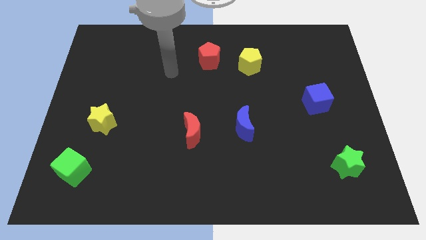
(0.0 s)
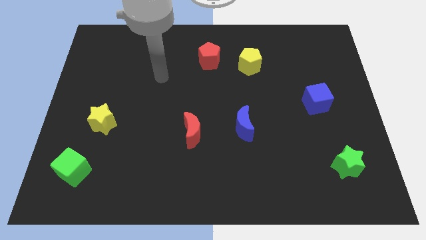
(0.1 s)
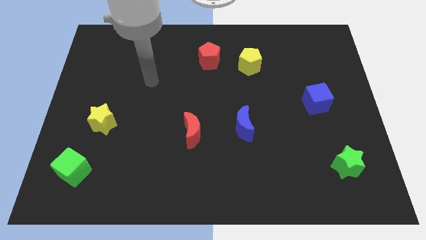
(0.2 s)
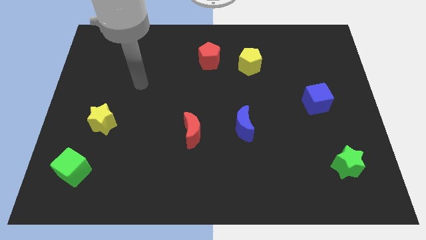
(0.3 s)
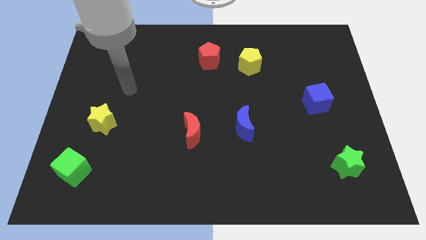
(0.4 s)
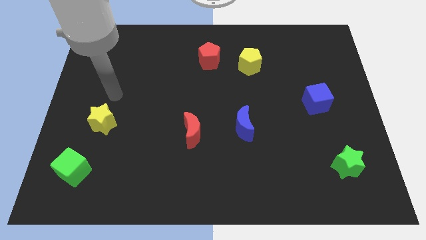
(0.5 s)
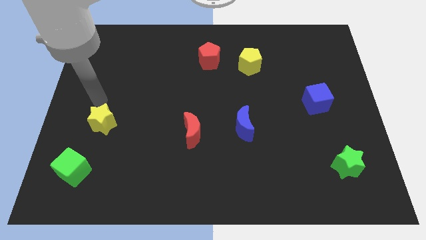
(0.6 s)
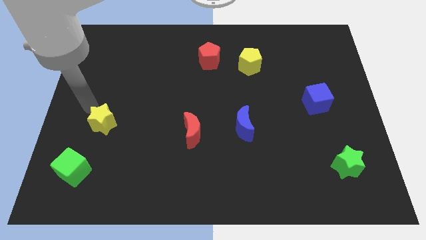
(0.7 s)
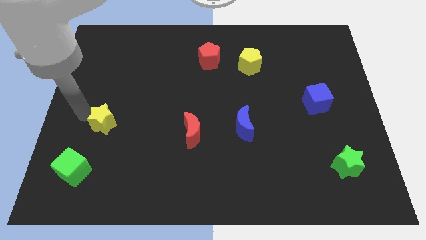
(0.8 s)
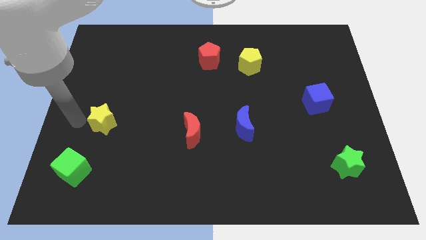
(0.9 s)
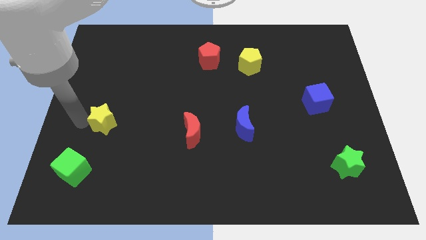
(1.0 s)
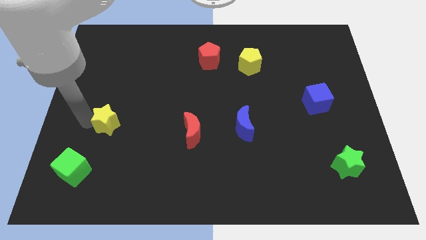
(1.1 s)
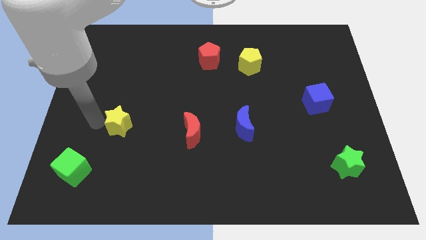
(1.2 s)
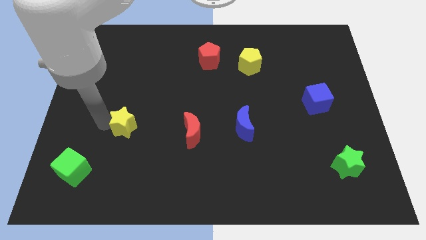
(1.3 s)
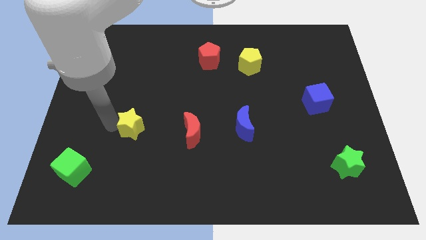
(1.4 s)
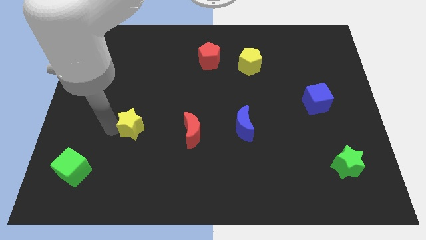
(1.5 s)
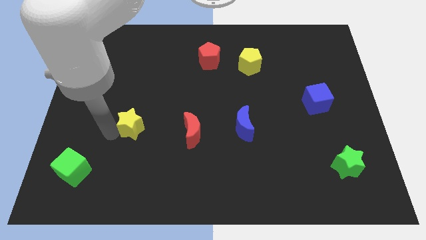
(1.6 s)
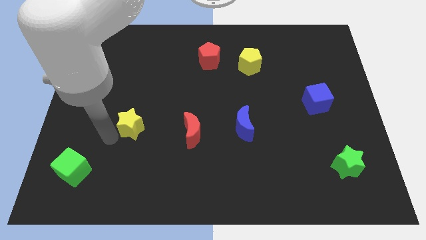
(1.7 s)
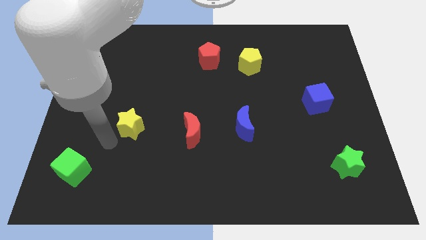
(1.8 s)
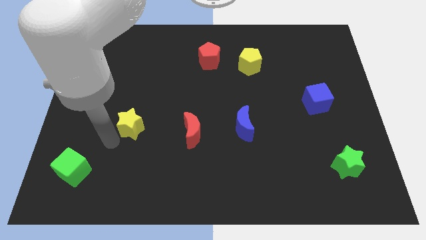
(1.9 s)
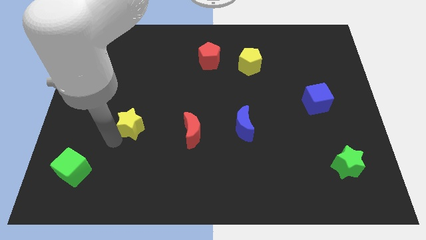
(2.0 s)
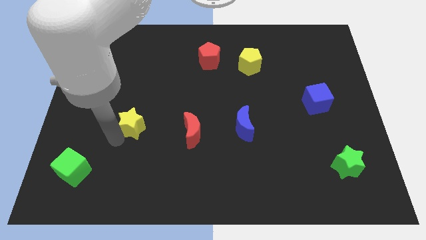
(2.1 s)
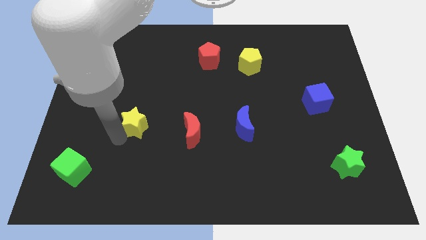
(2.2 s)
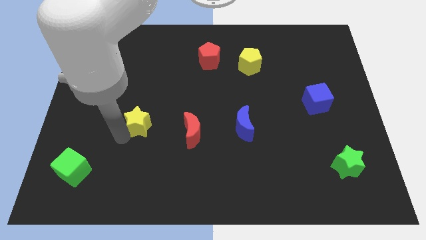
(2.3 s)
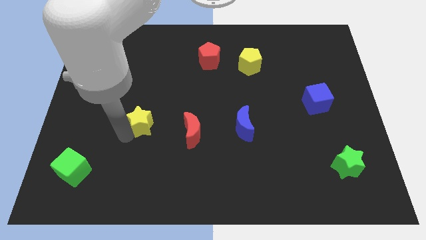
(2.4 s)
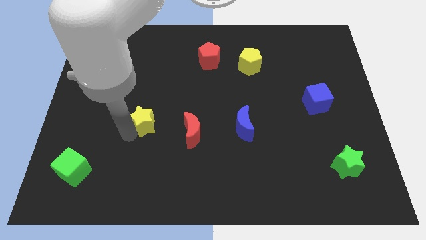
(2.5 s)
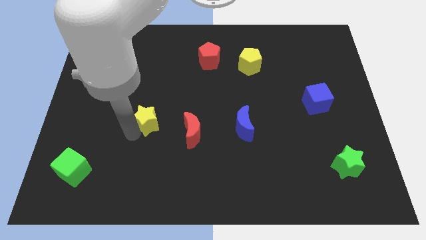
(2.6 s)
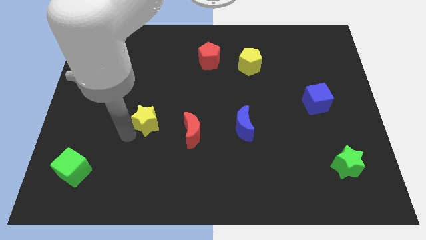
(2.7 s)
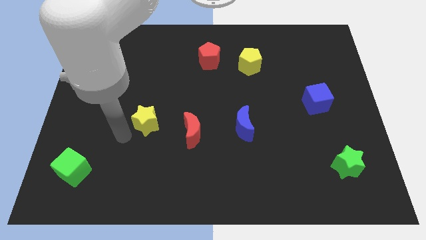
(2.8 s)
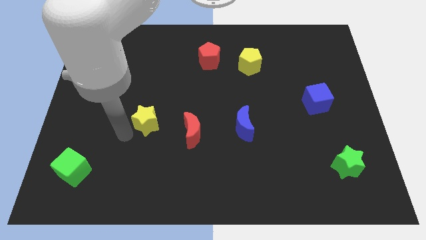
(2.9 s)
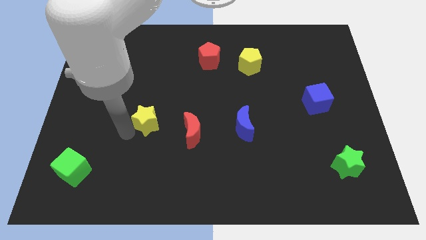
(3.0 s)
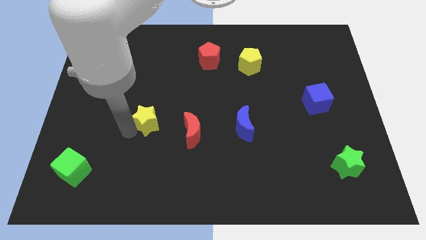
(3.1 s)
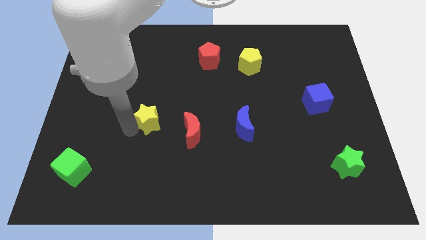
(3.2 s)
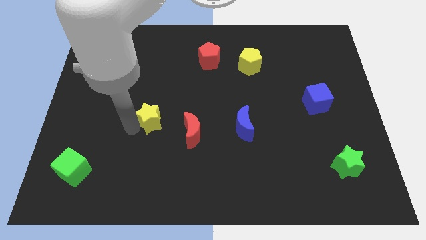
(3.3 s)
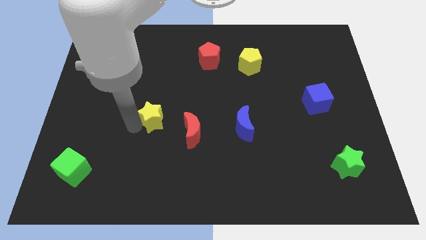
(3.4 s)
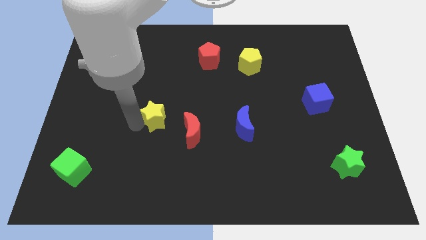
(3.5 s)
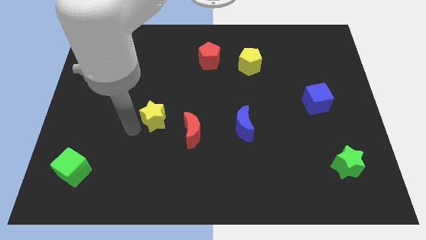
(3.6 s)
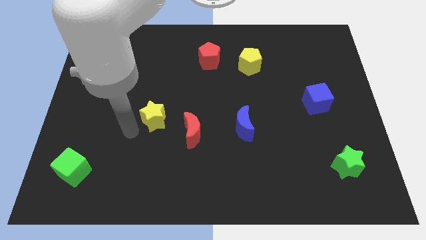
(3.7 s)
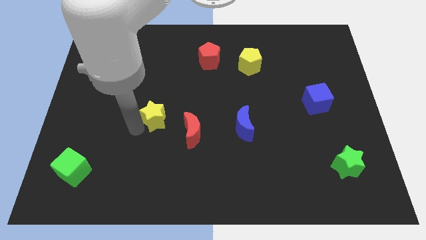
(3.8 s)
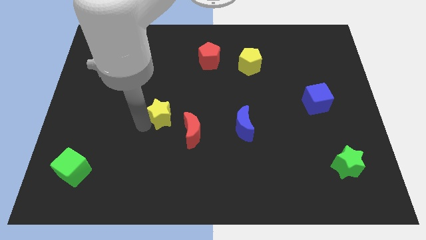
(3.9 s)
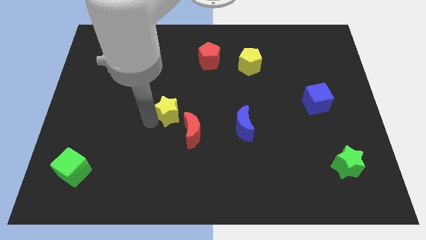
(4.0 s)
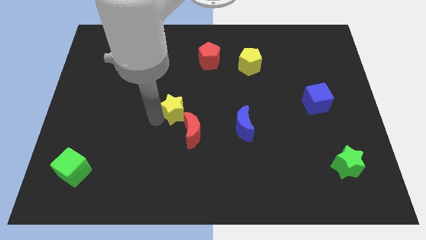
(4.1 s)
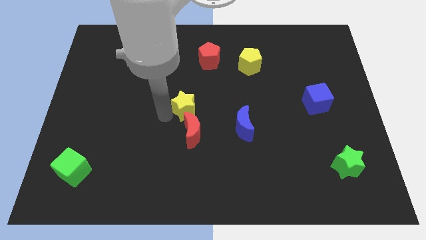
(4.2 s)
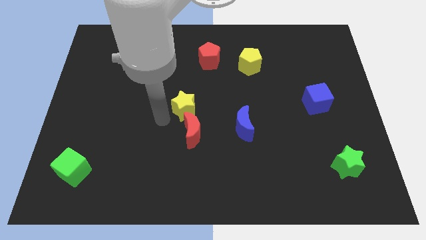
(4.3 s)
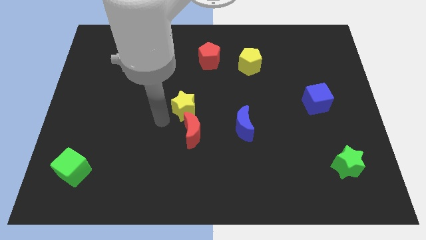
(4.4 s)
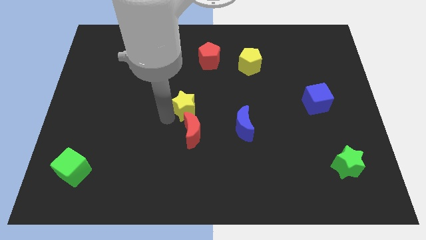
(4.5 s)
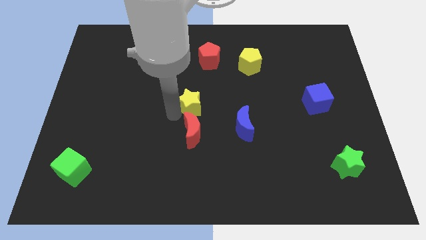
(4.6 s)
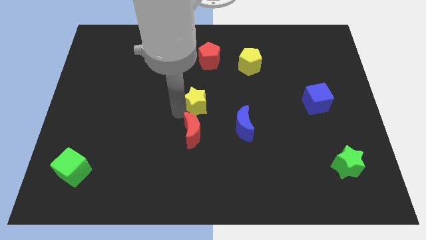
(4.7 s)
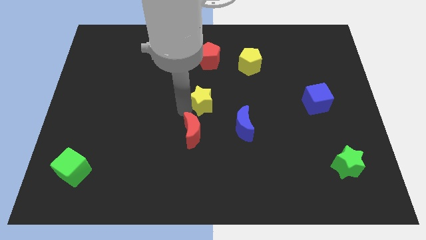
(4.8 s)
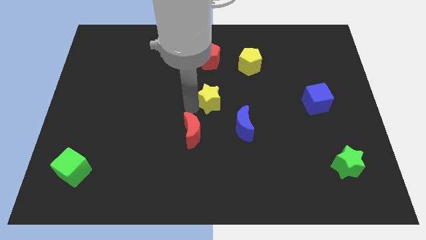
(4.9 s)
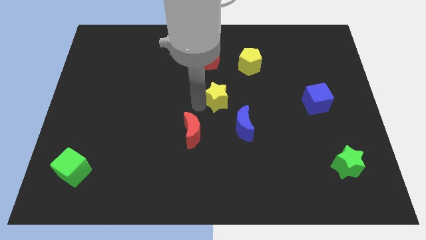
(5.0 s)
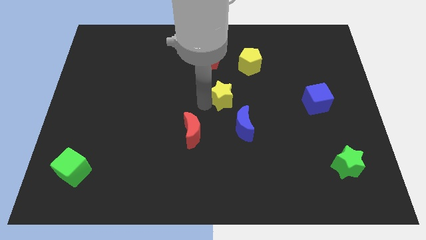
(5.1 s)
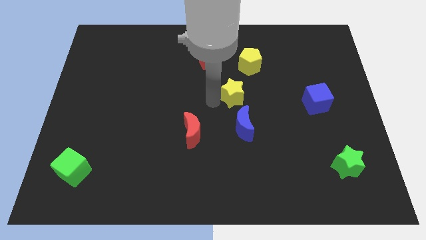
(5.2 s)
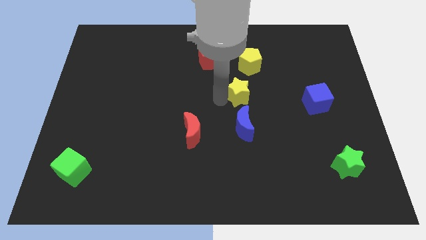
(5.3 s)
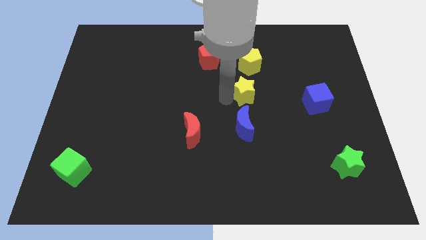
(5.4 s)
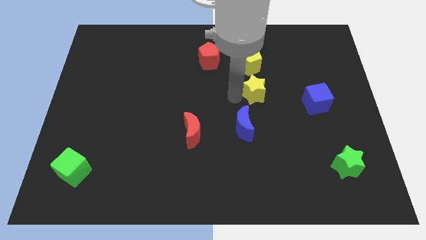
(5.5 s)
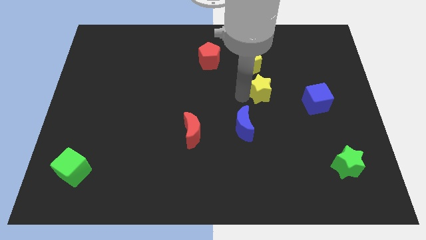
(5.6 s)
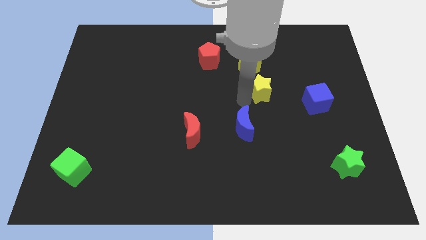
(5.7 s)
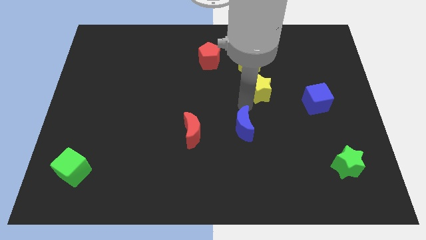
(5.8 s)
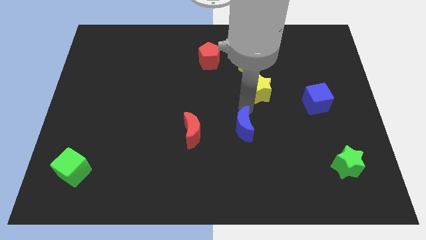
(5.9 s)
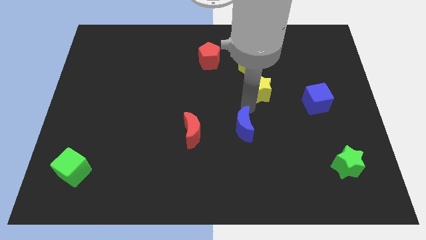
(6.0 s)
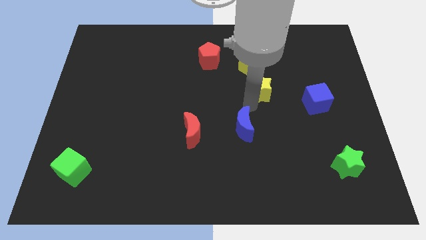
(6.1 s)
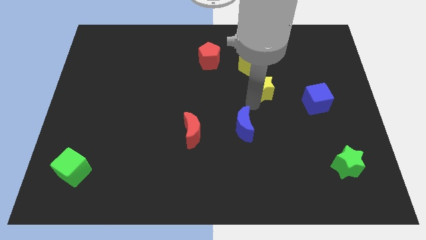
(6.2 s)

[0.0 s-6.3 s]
push the yellow star to the bottom right side of the yellow pentagon
